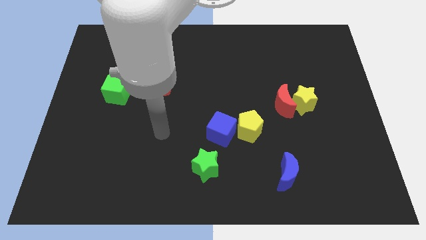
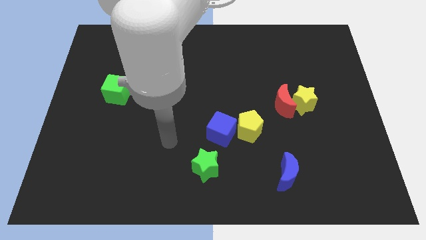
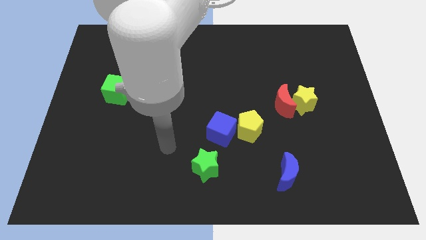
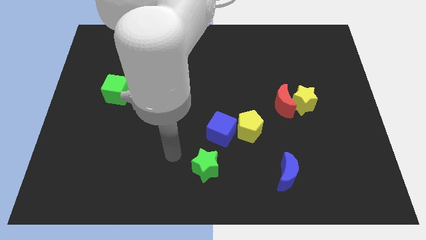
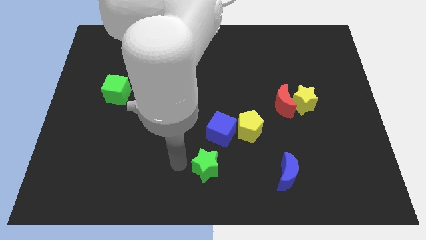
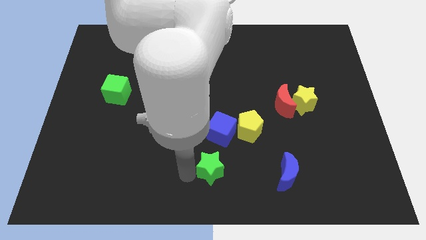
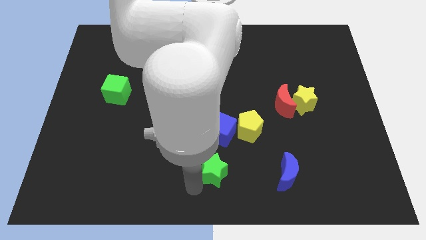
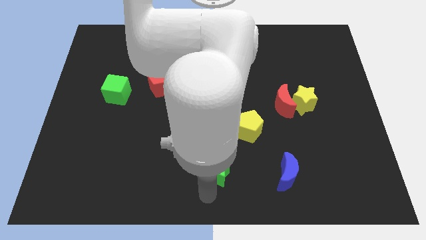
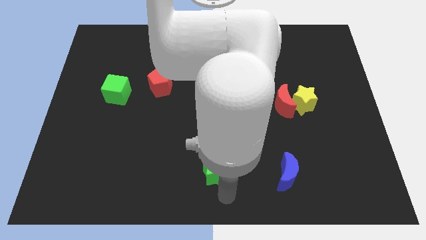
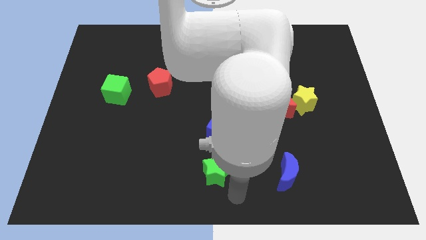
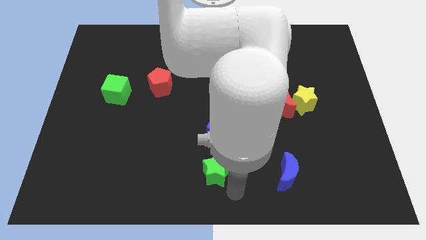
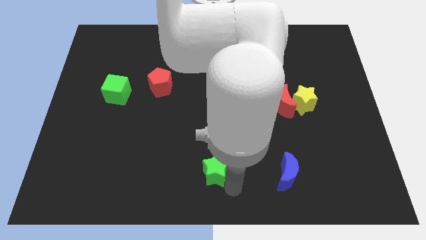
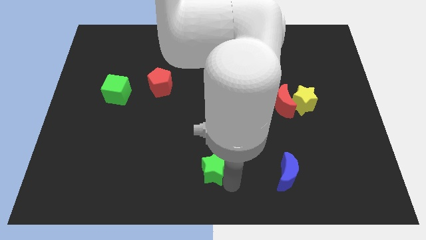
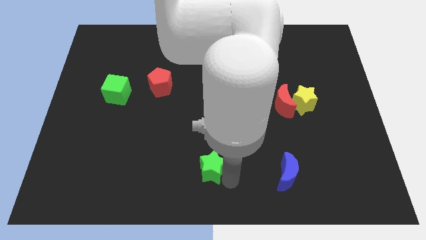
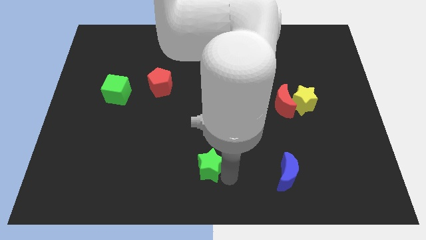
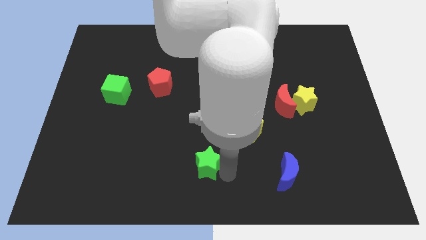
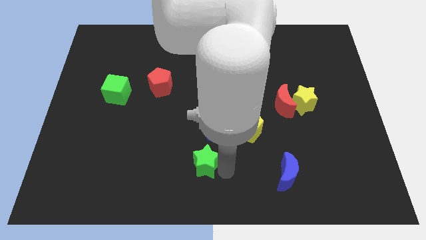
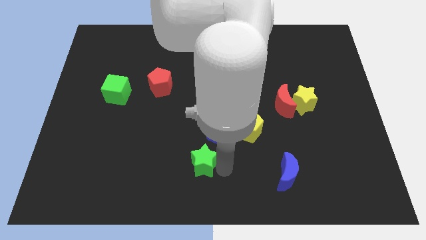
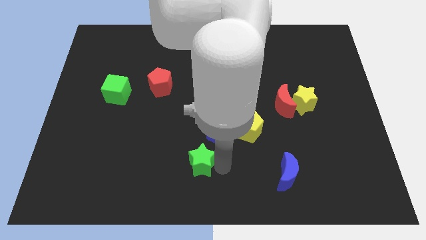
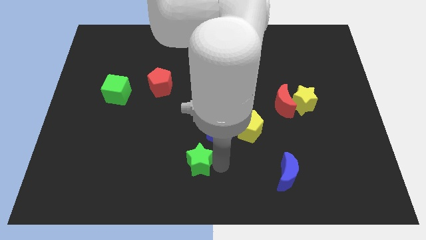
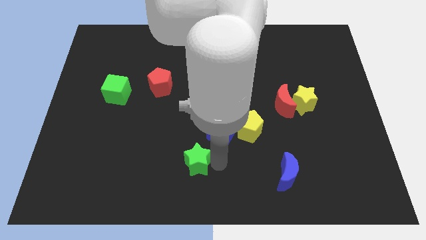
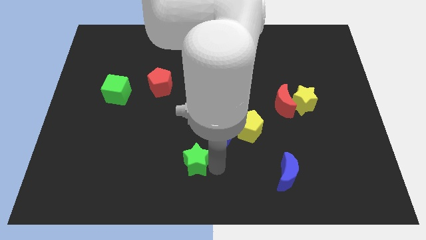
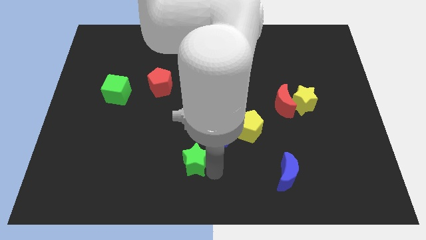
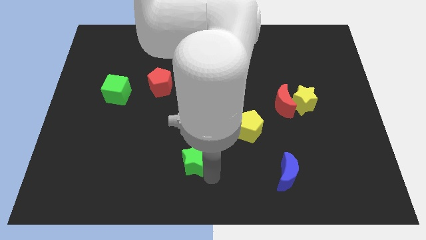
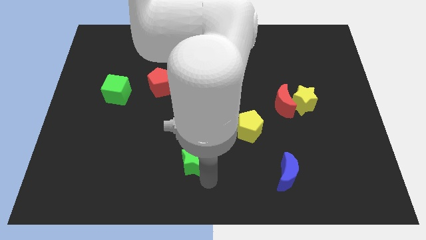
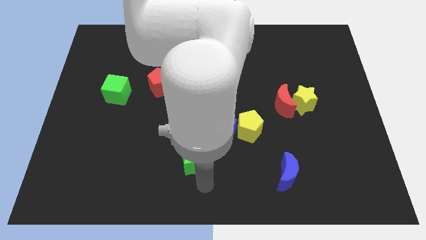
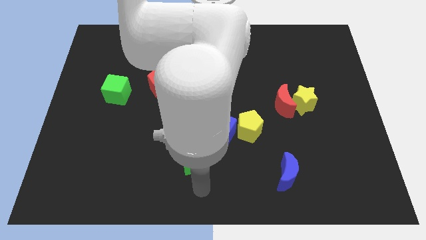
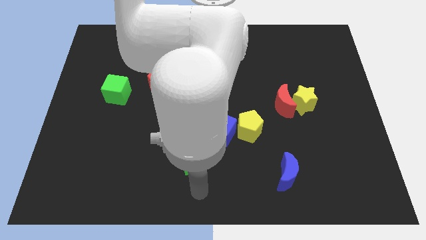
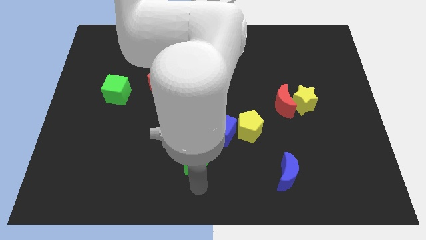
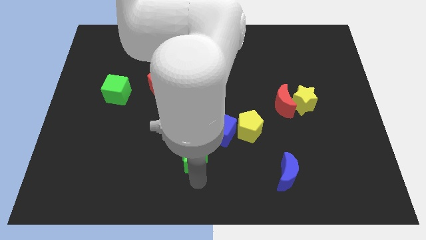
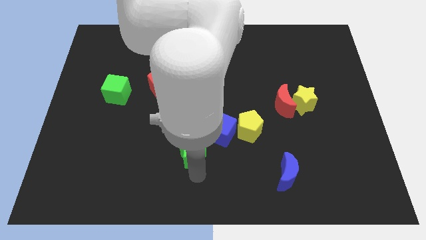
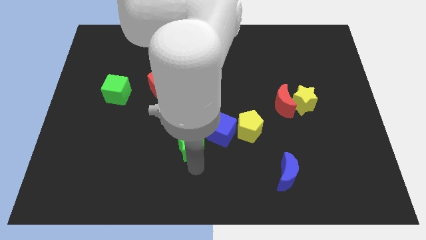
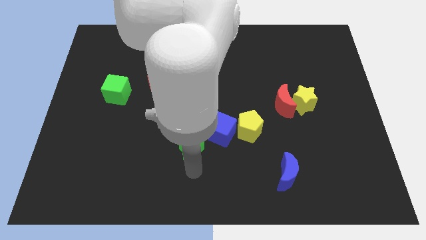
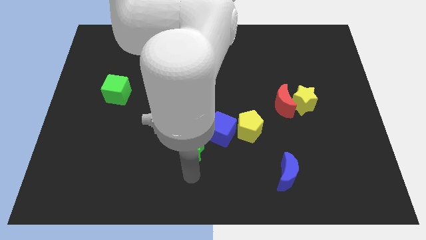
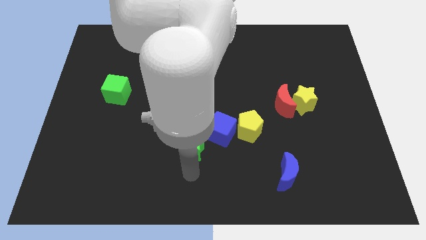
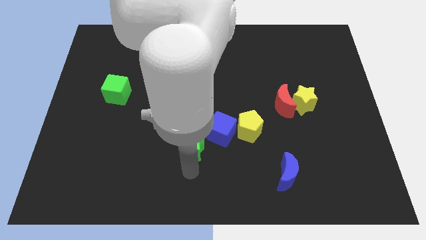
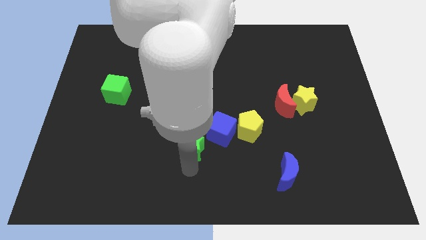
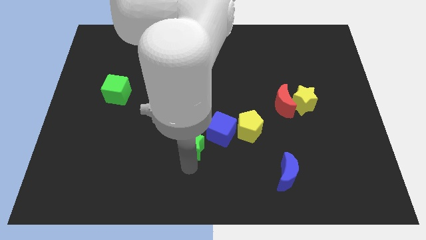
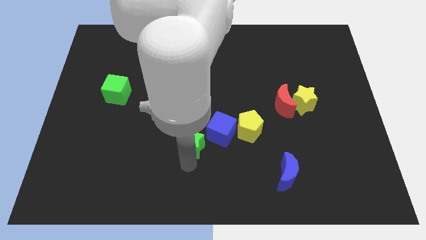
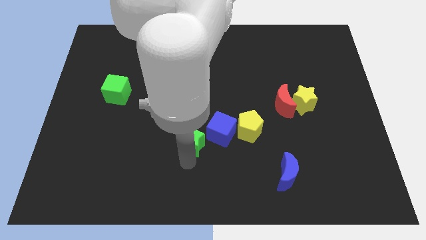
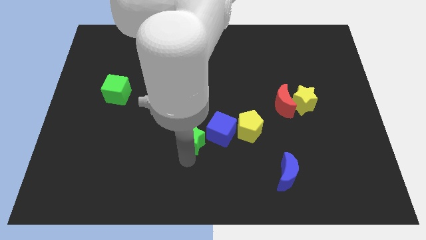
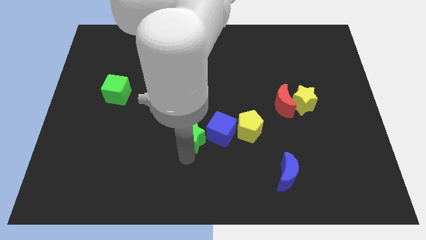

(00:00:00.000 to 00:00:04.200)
slide the green star upwards a bit

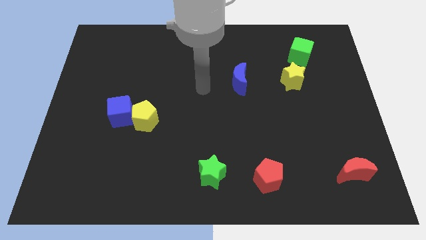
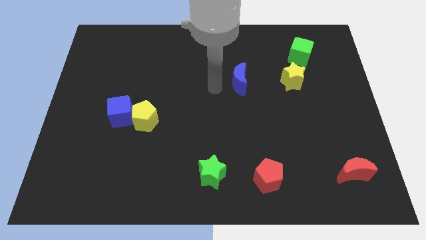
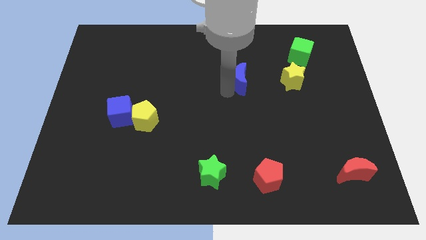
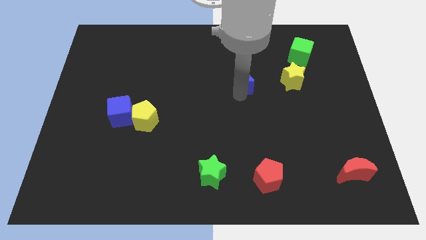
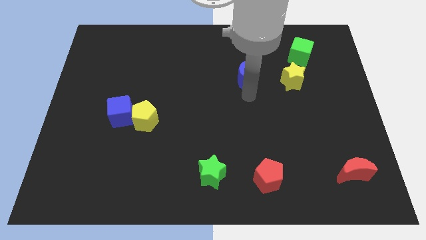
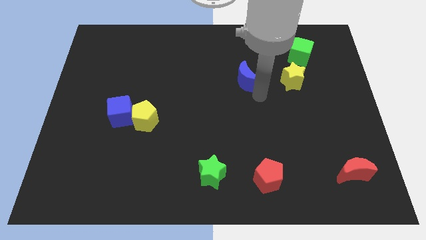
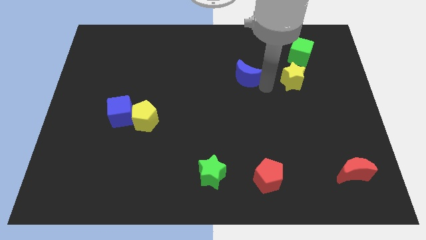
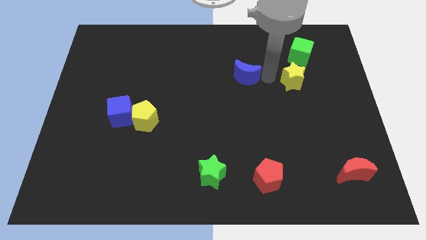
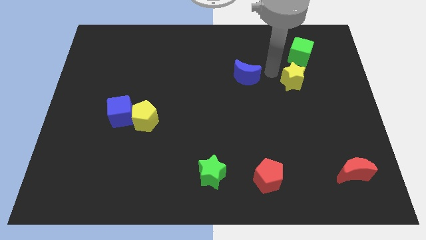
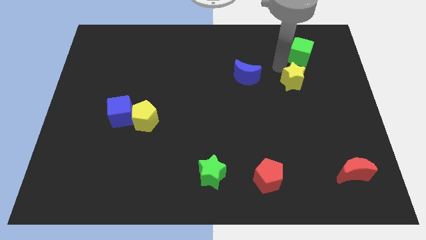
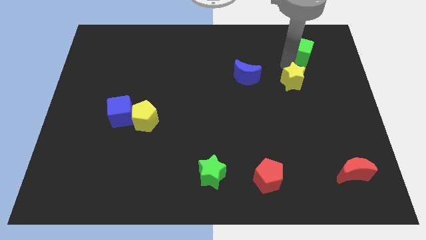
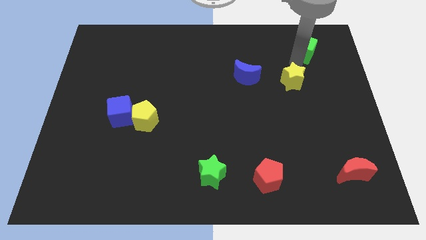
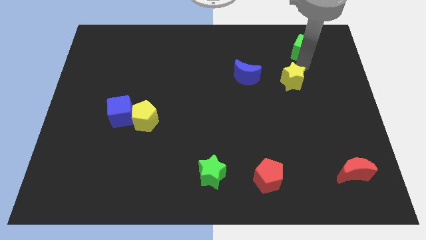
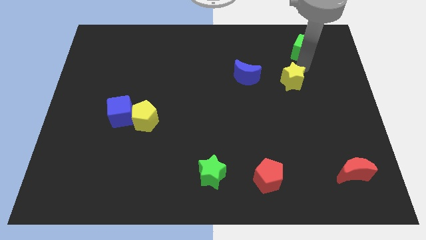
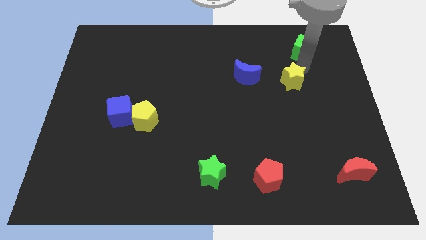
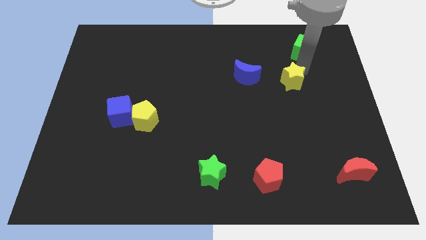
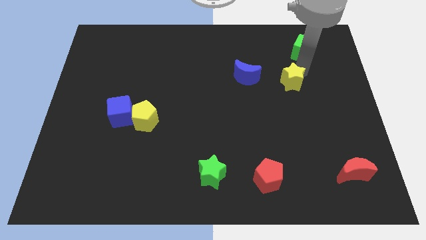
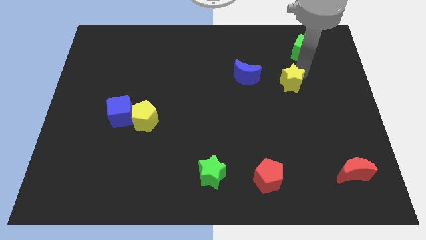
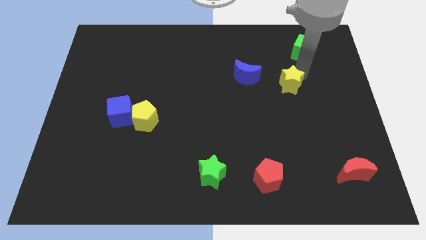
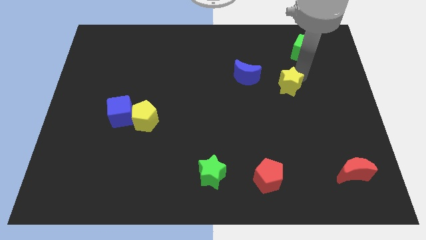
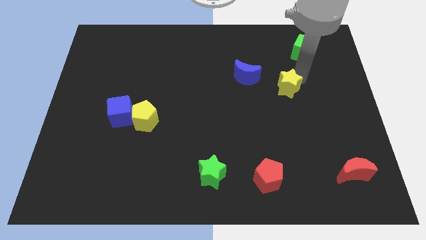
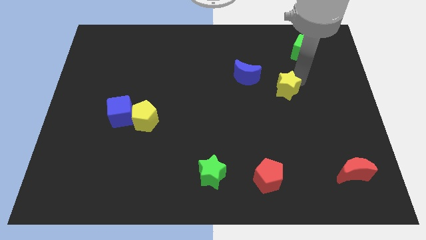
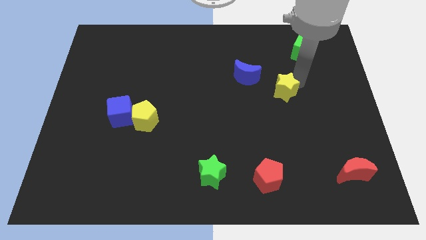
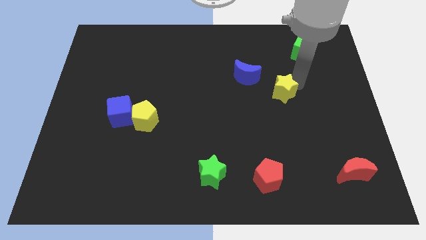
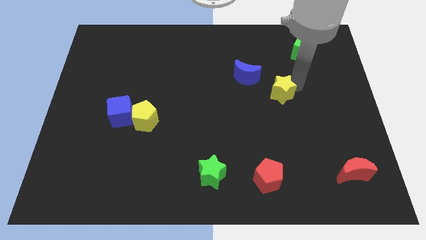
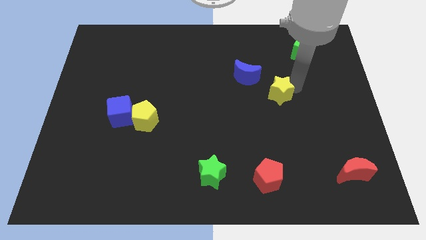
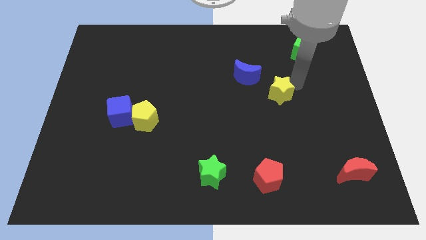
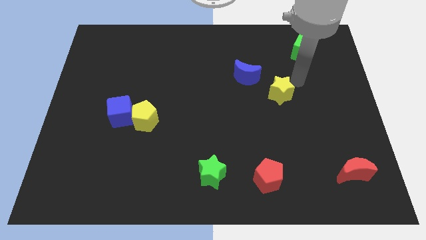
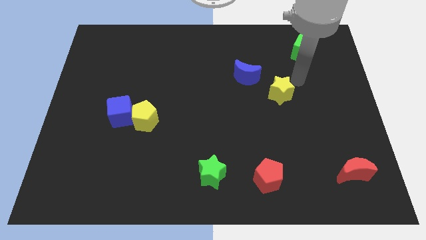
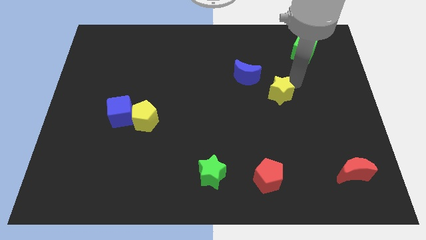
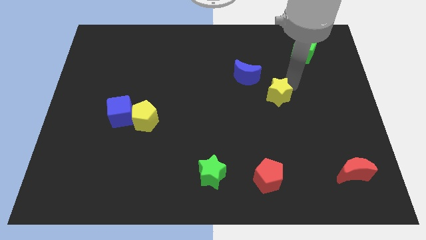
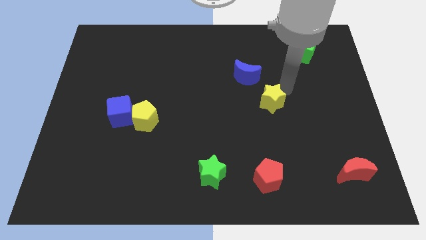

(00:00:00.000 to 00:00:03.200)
slightly push the yellow star down and left diagonally

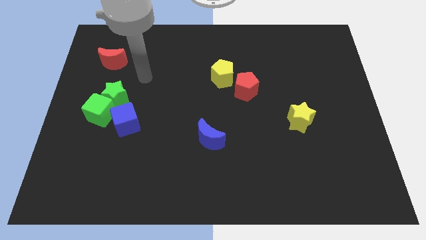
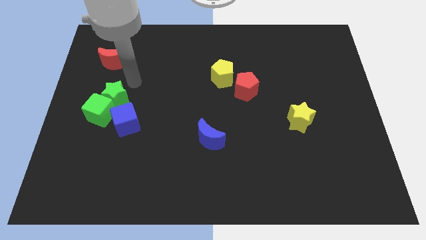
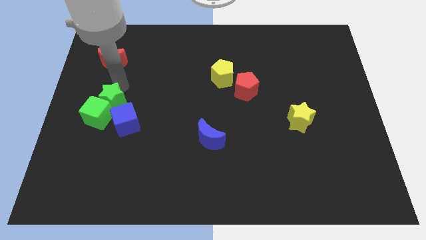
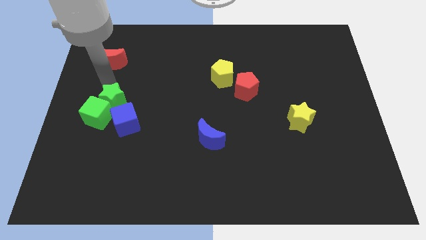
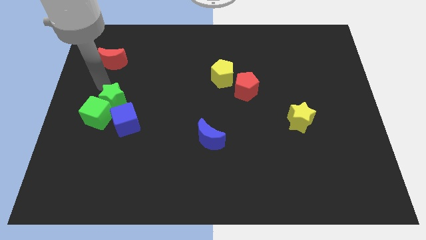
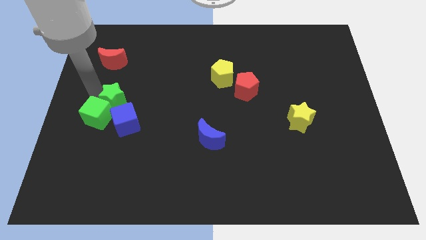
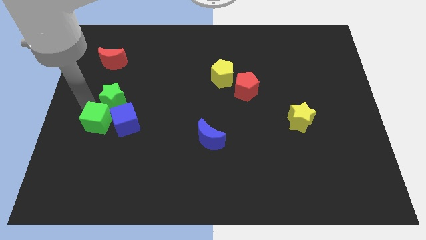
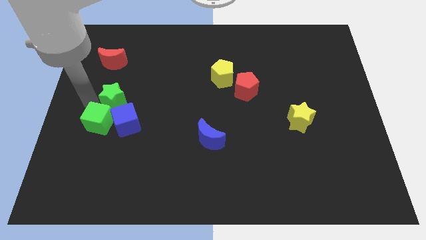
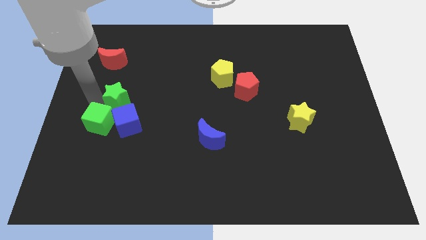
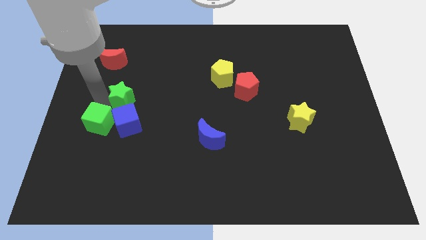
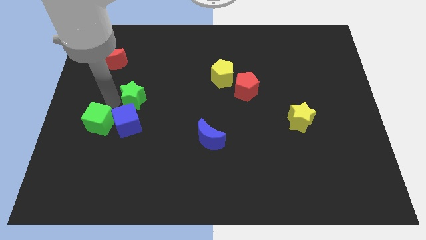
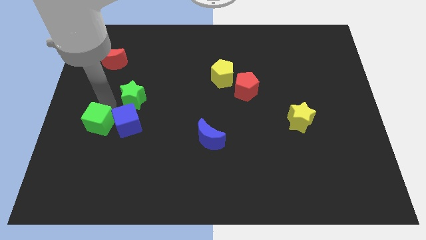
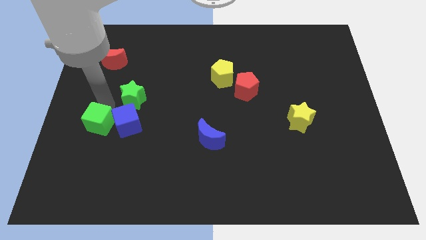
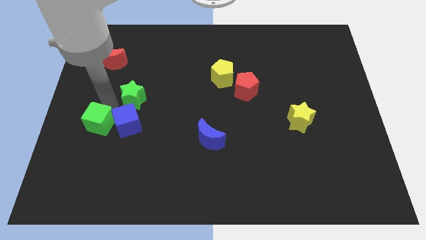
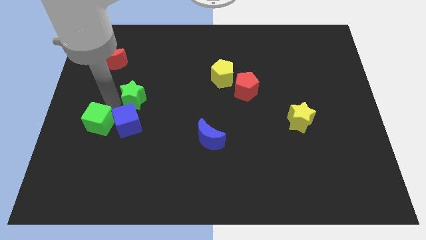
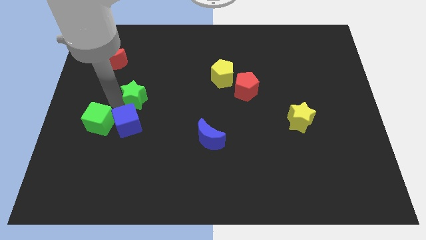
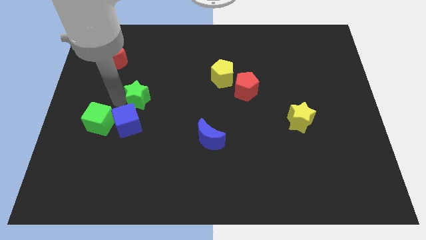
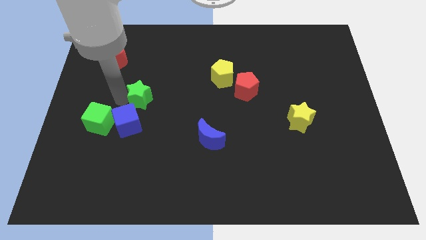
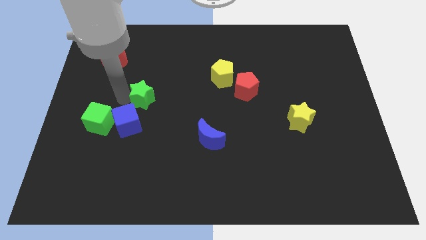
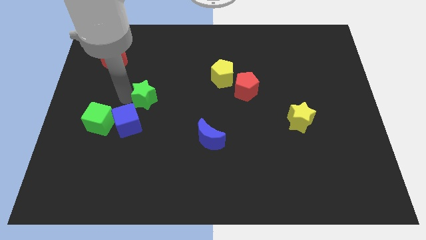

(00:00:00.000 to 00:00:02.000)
slightly move the green star right
